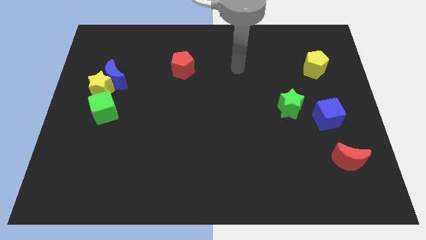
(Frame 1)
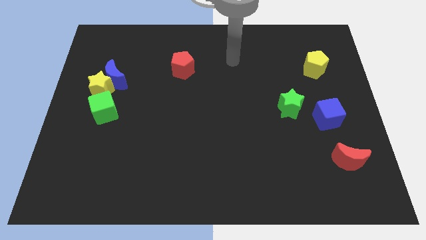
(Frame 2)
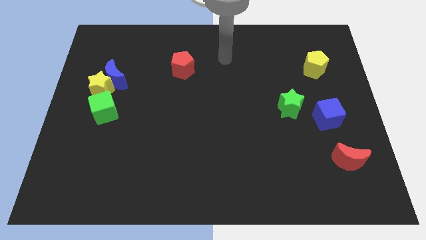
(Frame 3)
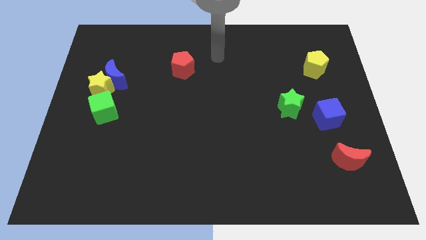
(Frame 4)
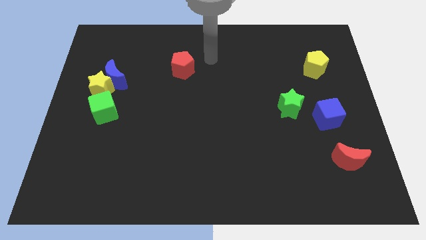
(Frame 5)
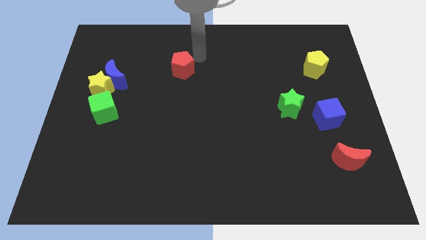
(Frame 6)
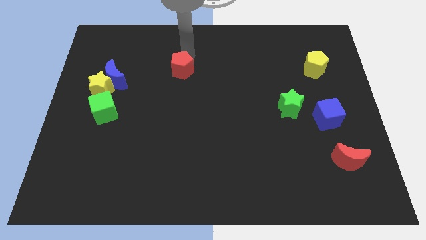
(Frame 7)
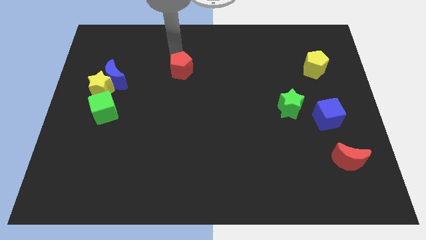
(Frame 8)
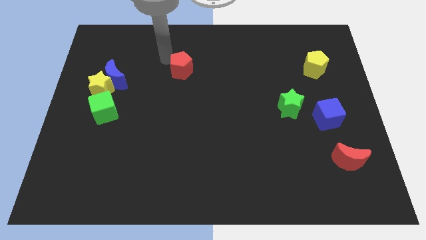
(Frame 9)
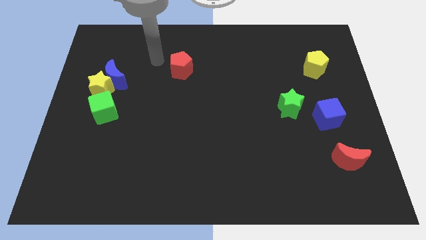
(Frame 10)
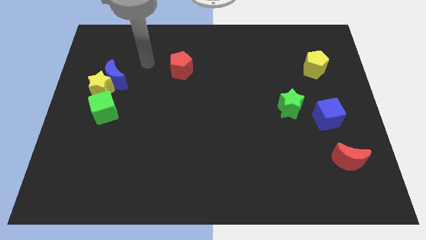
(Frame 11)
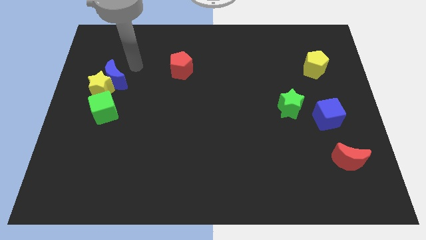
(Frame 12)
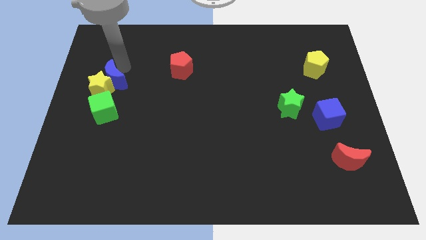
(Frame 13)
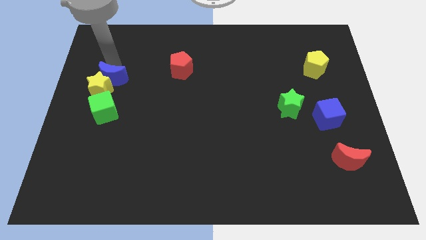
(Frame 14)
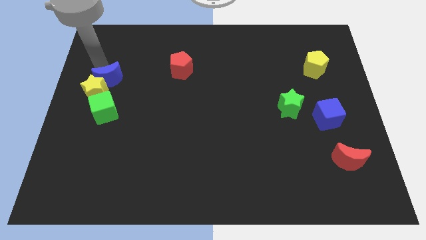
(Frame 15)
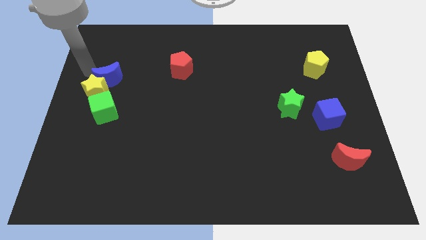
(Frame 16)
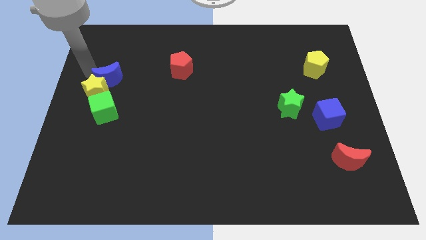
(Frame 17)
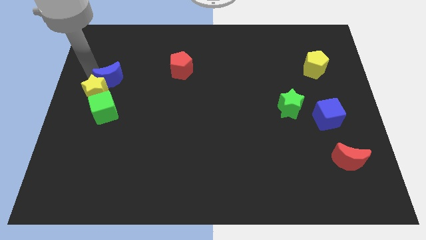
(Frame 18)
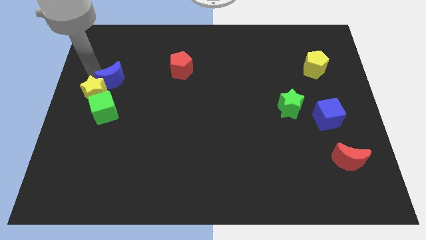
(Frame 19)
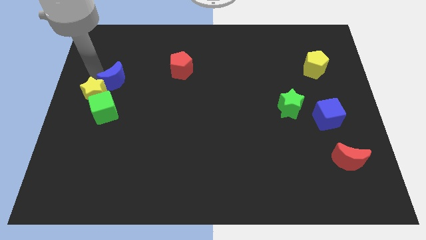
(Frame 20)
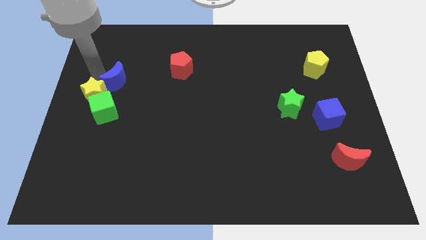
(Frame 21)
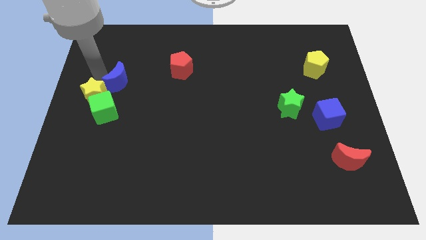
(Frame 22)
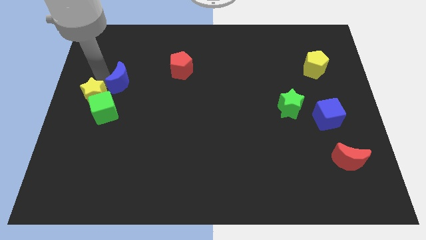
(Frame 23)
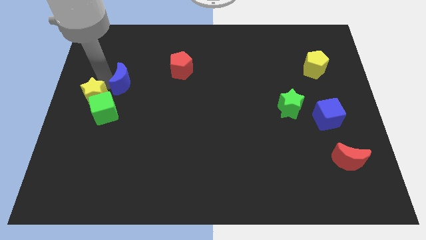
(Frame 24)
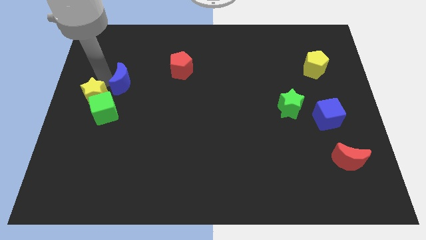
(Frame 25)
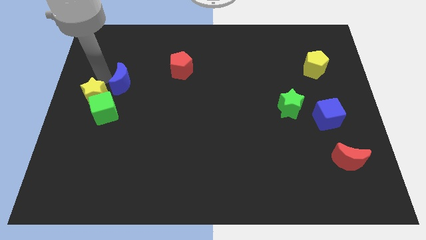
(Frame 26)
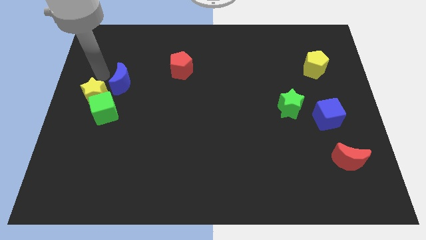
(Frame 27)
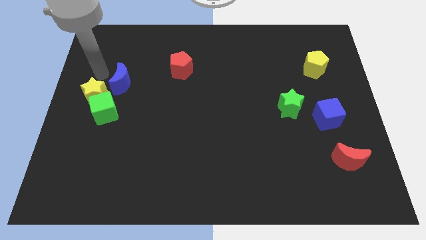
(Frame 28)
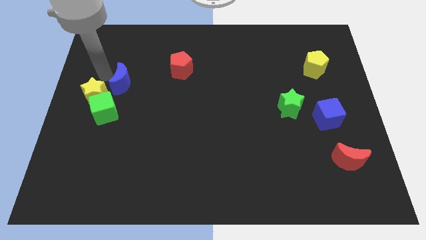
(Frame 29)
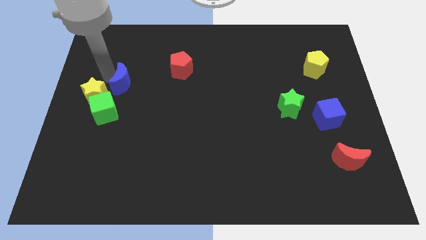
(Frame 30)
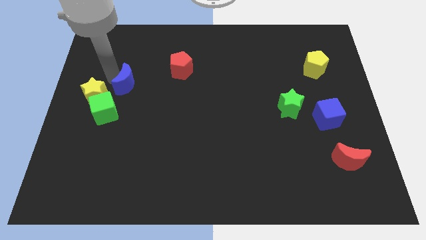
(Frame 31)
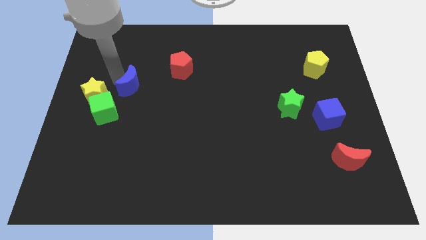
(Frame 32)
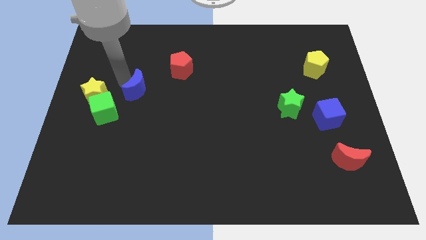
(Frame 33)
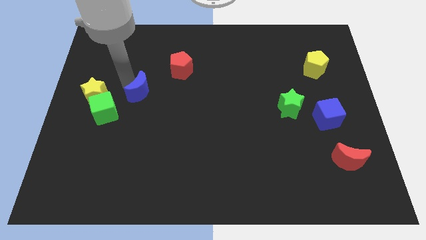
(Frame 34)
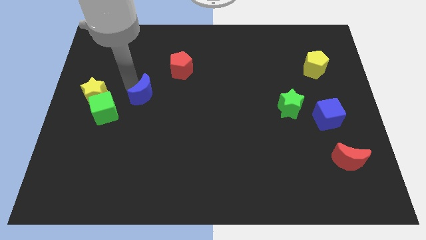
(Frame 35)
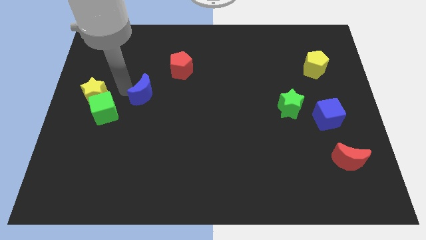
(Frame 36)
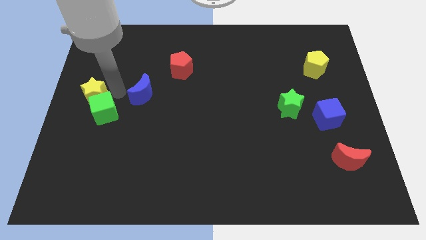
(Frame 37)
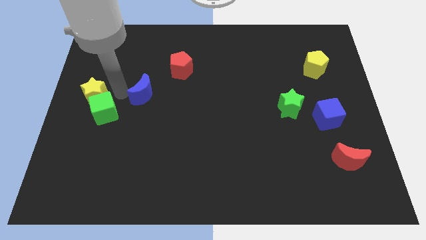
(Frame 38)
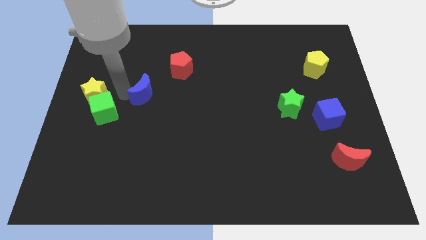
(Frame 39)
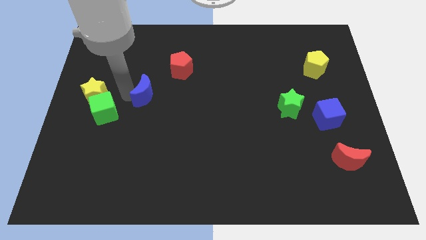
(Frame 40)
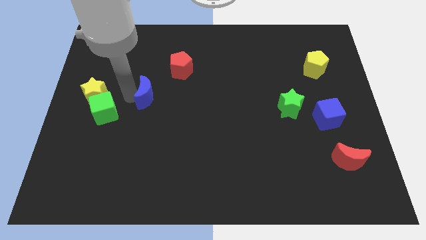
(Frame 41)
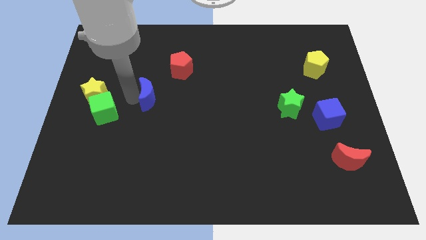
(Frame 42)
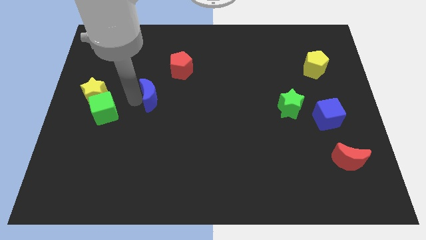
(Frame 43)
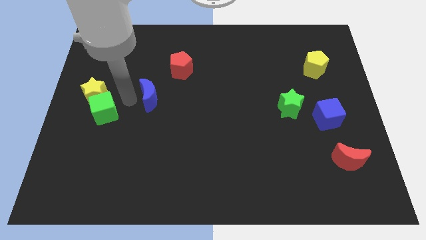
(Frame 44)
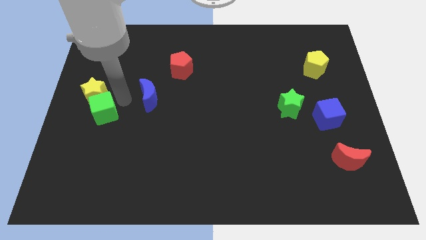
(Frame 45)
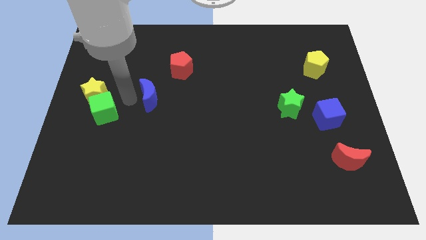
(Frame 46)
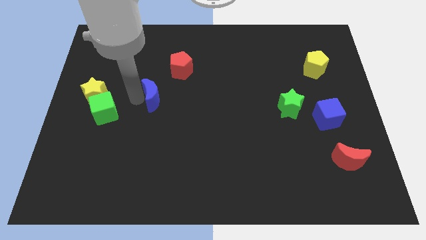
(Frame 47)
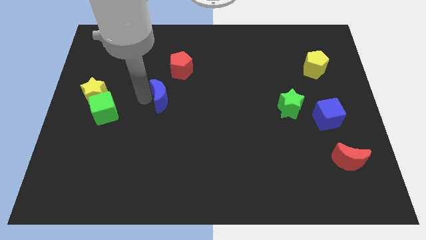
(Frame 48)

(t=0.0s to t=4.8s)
put the blue moon to the center

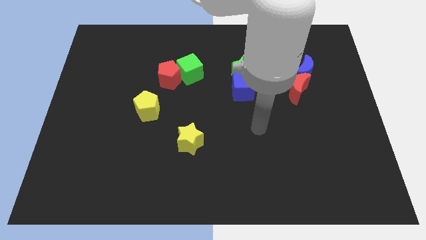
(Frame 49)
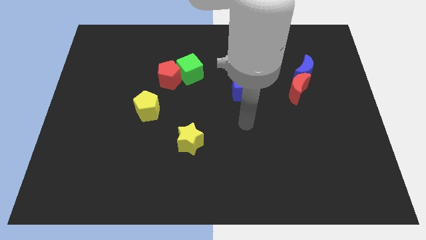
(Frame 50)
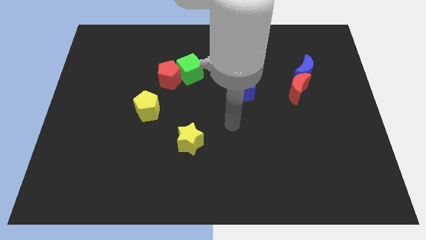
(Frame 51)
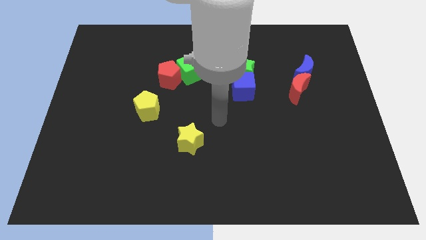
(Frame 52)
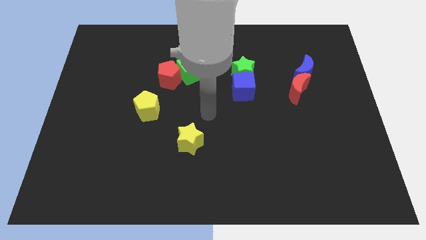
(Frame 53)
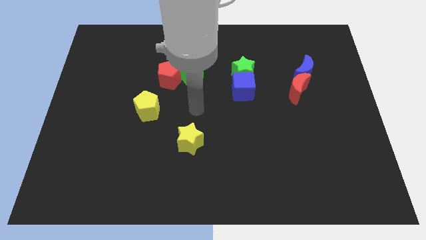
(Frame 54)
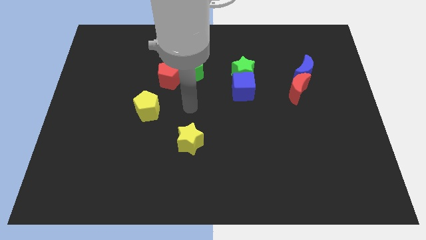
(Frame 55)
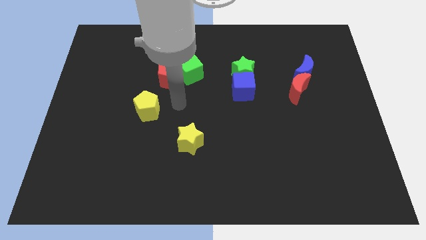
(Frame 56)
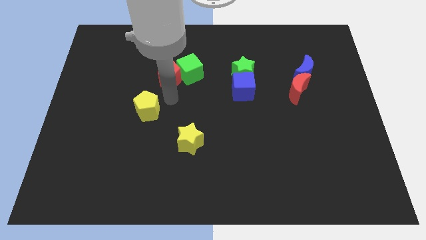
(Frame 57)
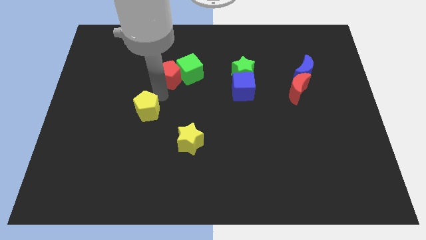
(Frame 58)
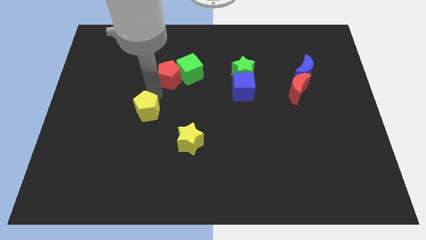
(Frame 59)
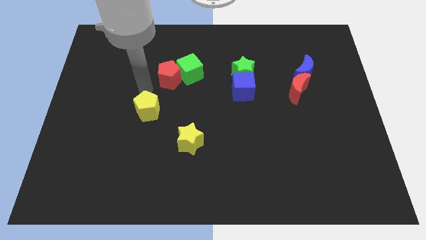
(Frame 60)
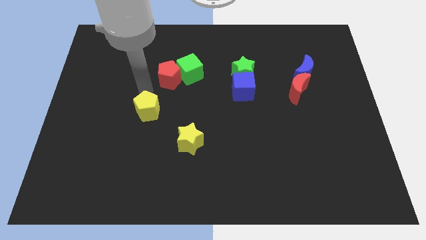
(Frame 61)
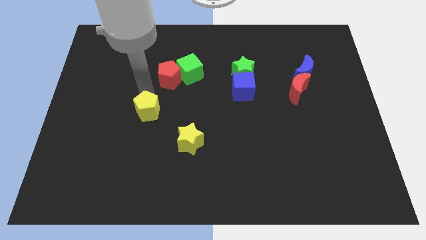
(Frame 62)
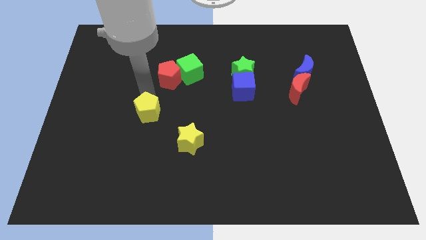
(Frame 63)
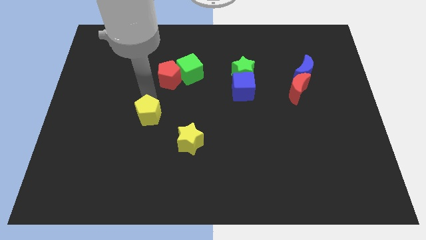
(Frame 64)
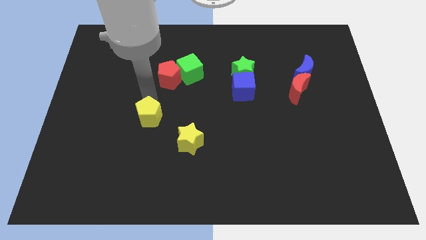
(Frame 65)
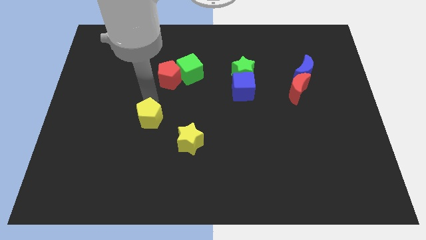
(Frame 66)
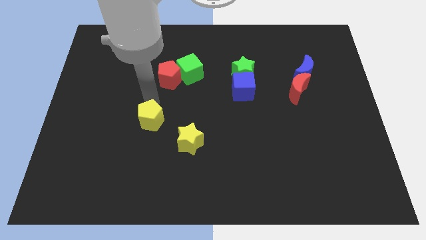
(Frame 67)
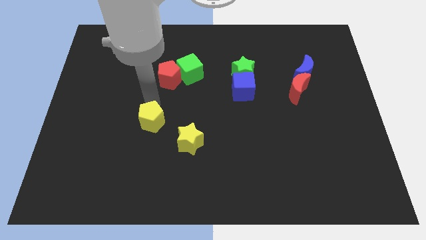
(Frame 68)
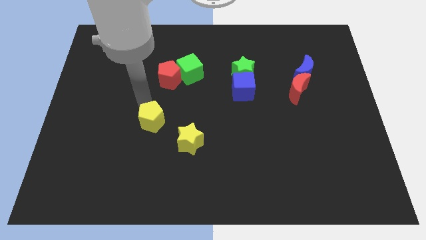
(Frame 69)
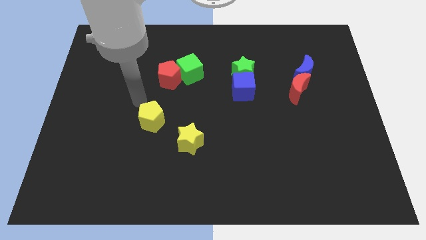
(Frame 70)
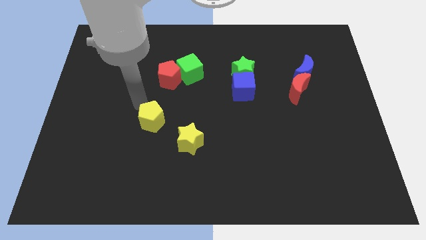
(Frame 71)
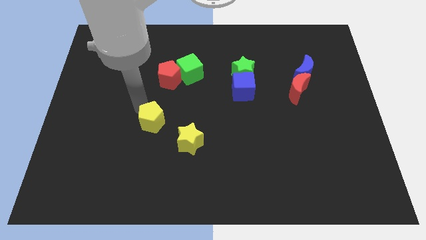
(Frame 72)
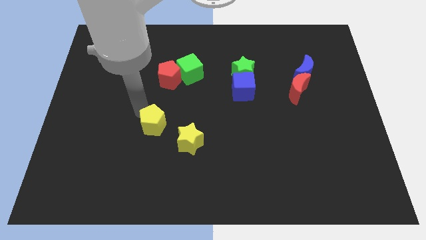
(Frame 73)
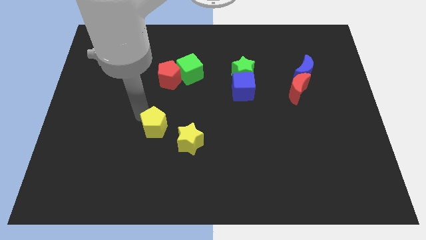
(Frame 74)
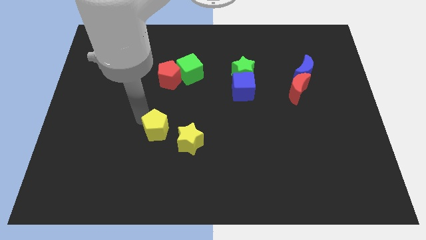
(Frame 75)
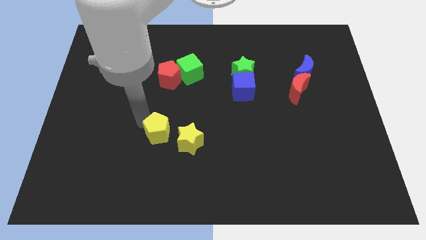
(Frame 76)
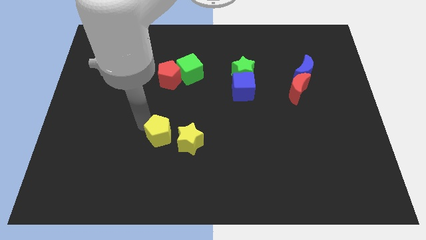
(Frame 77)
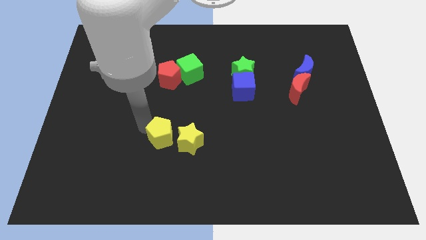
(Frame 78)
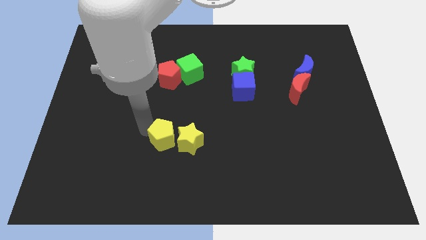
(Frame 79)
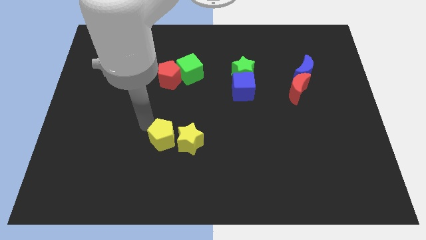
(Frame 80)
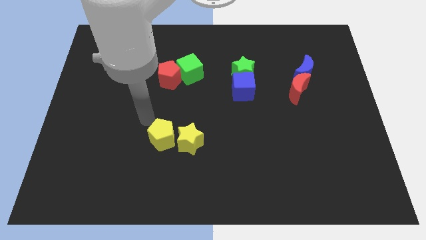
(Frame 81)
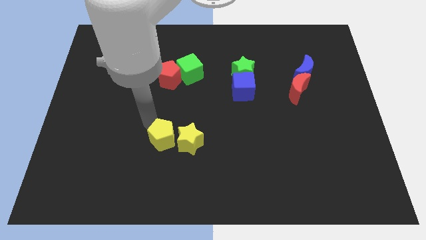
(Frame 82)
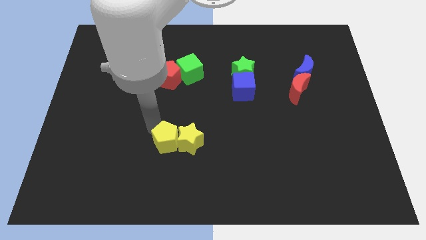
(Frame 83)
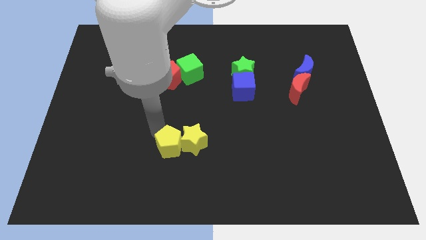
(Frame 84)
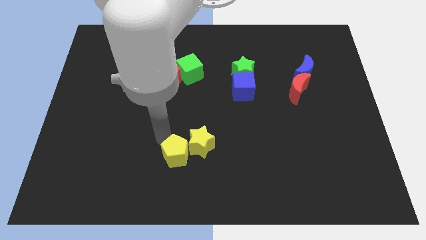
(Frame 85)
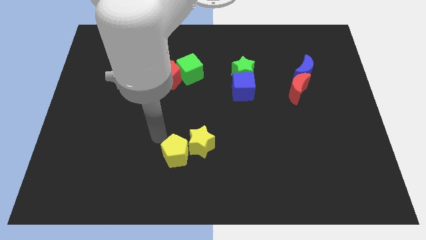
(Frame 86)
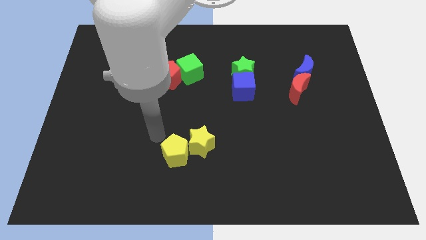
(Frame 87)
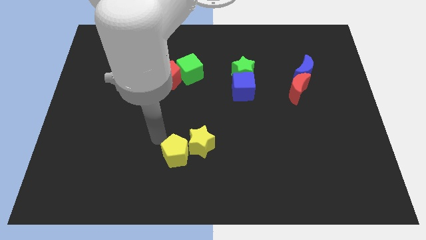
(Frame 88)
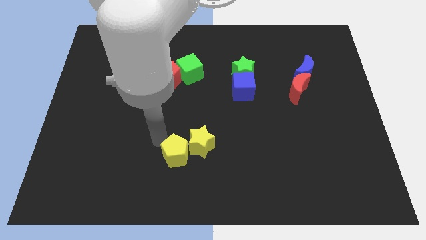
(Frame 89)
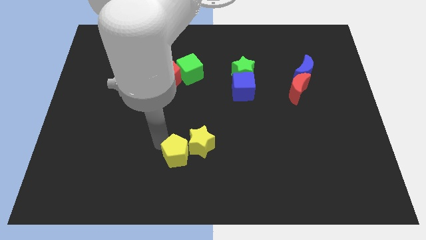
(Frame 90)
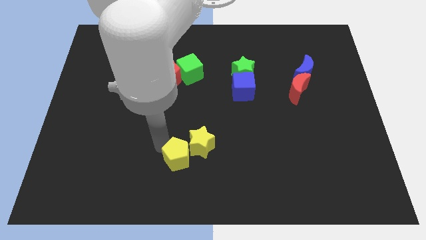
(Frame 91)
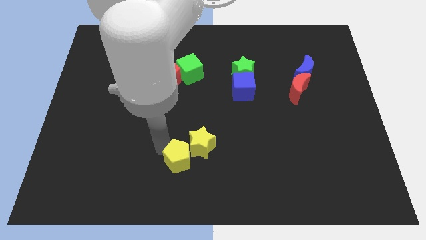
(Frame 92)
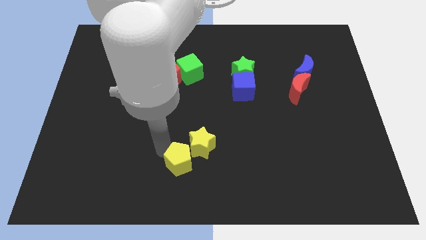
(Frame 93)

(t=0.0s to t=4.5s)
slide the yellow pentagon to the bottom side
